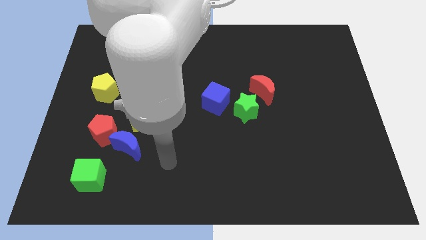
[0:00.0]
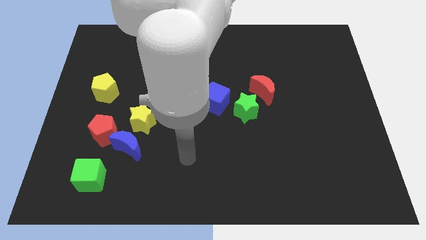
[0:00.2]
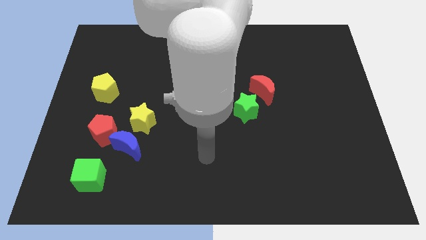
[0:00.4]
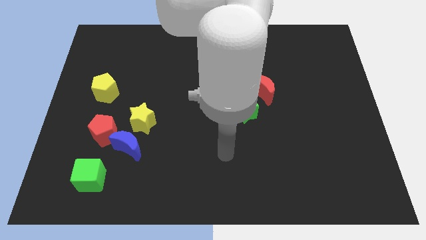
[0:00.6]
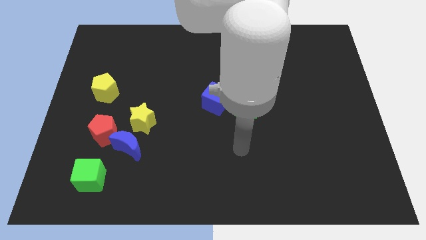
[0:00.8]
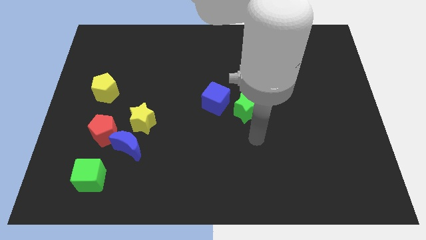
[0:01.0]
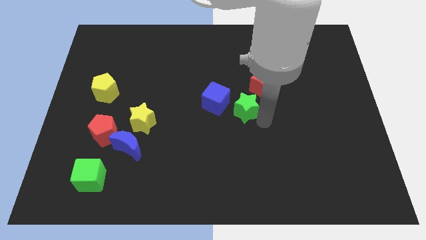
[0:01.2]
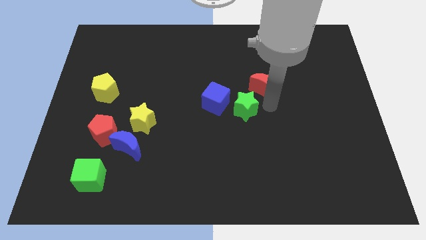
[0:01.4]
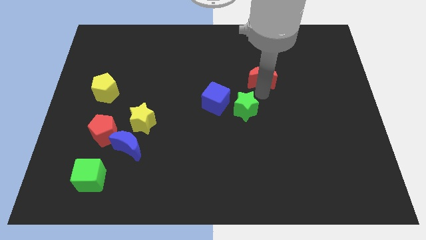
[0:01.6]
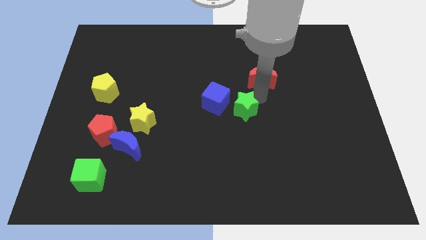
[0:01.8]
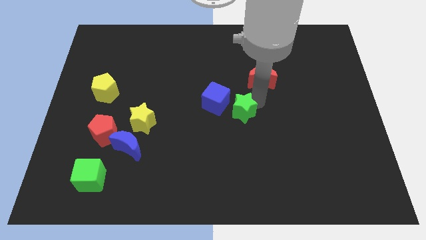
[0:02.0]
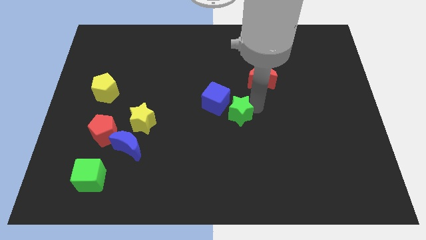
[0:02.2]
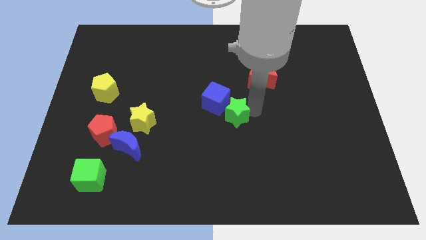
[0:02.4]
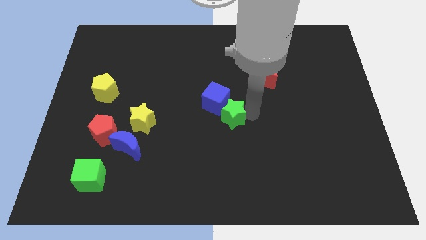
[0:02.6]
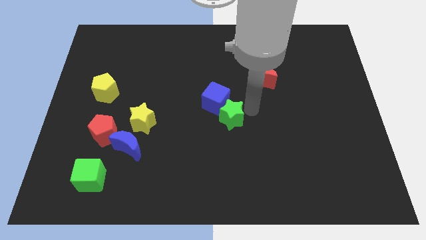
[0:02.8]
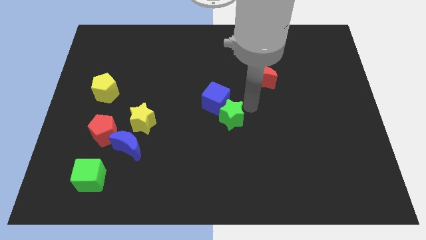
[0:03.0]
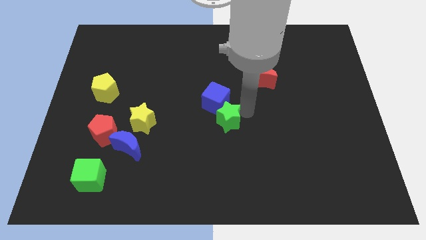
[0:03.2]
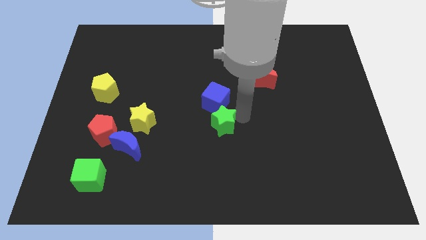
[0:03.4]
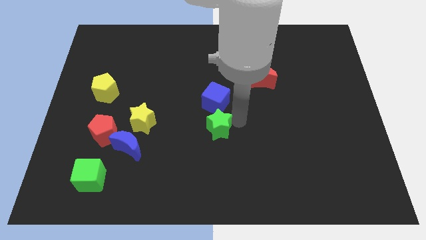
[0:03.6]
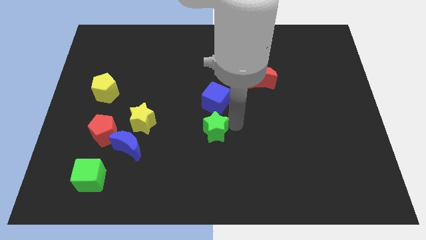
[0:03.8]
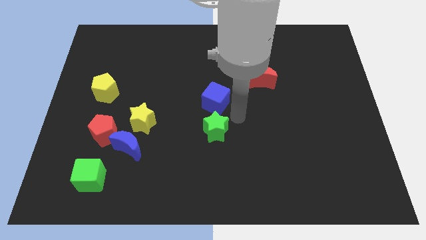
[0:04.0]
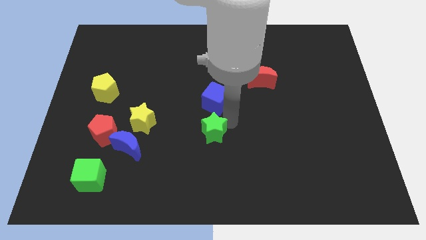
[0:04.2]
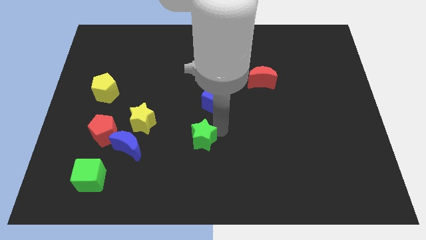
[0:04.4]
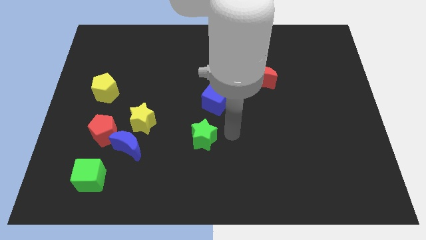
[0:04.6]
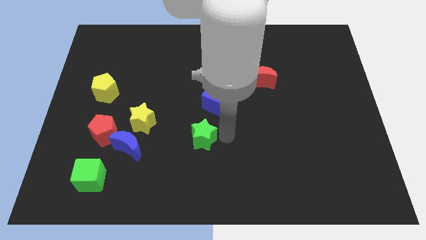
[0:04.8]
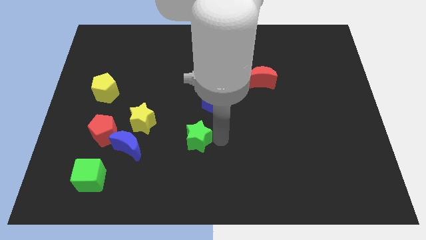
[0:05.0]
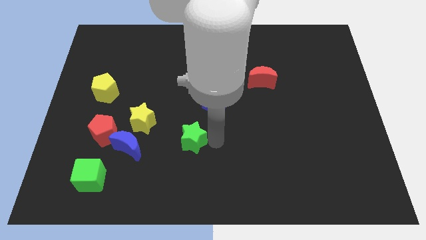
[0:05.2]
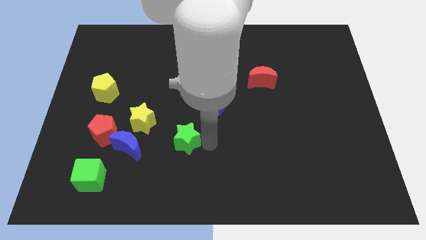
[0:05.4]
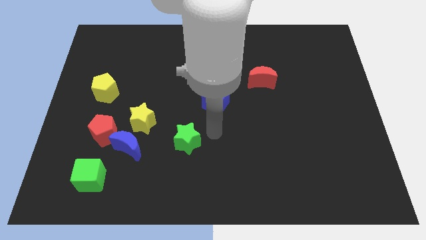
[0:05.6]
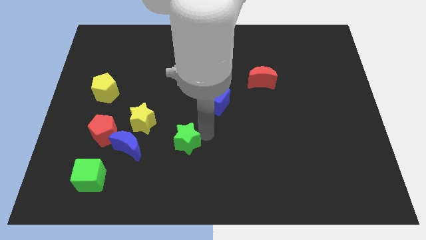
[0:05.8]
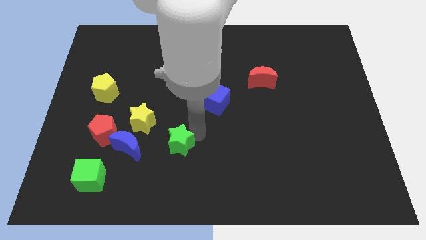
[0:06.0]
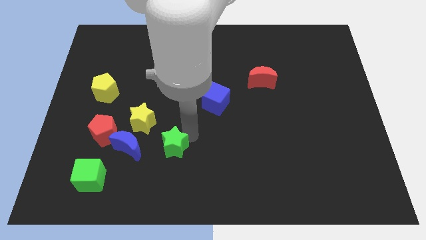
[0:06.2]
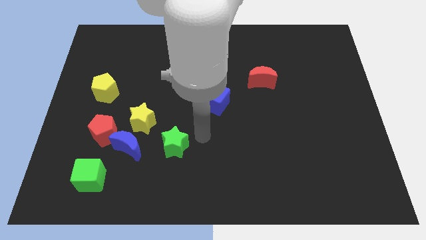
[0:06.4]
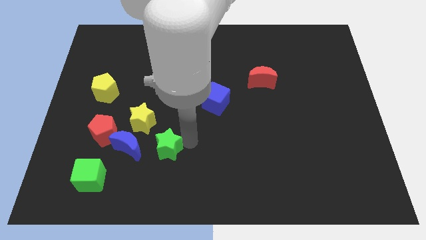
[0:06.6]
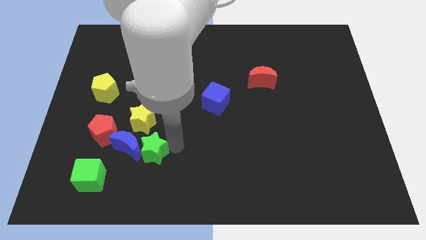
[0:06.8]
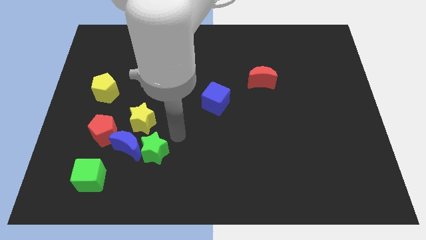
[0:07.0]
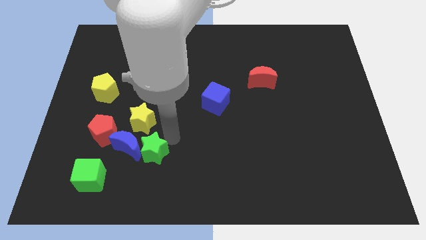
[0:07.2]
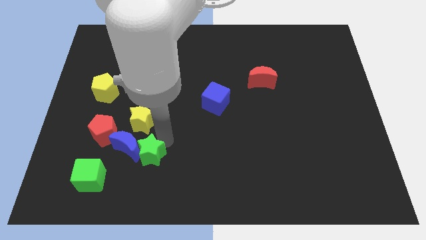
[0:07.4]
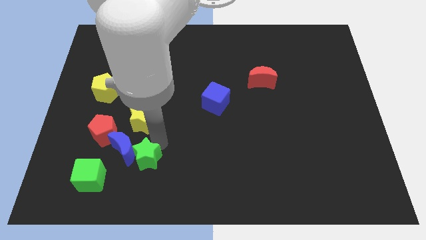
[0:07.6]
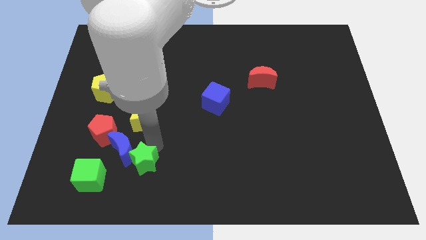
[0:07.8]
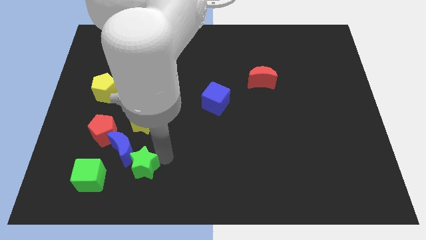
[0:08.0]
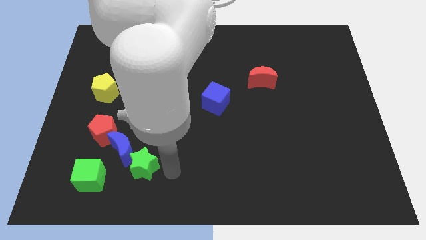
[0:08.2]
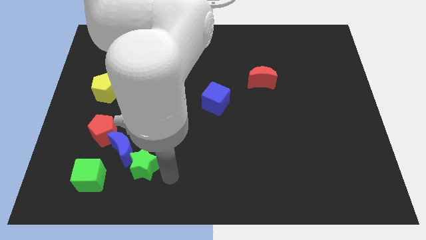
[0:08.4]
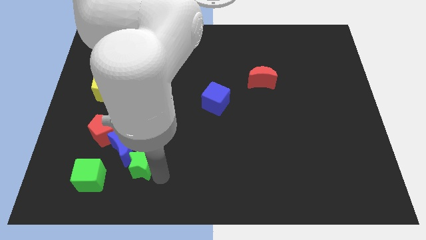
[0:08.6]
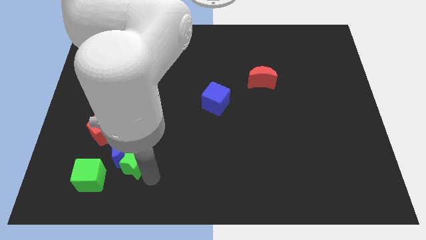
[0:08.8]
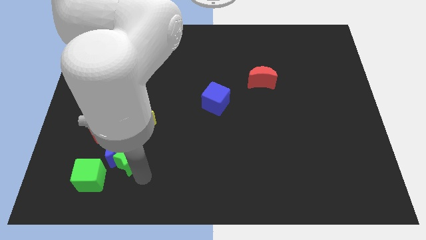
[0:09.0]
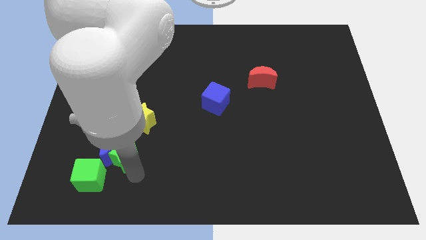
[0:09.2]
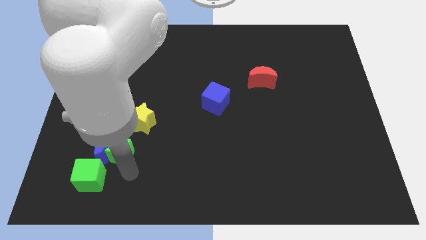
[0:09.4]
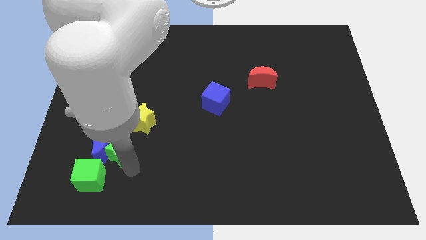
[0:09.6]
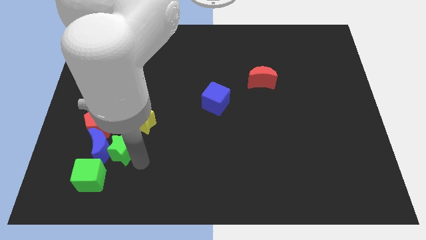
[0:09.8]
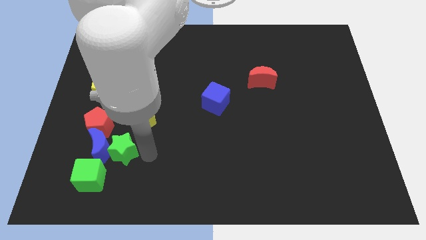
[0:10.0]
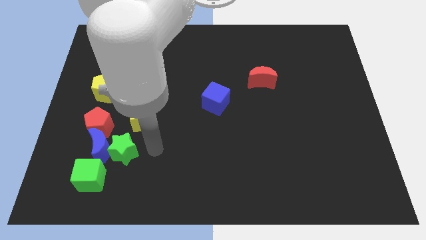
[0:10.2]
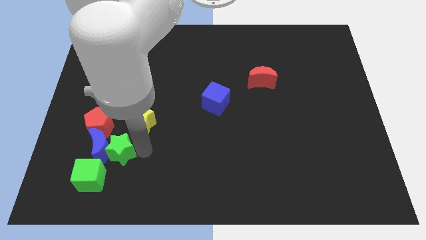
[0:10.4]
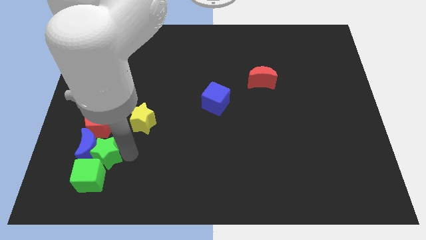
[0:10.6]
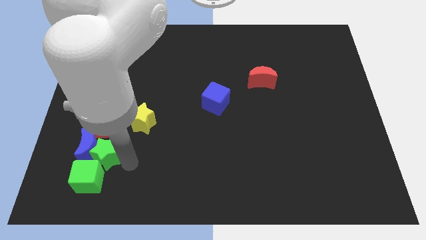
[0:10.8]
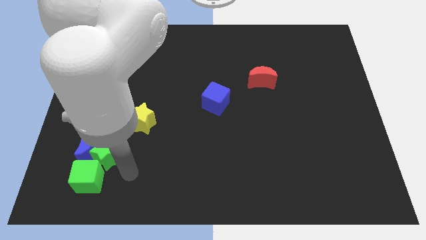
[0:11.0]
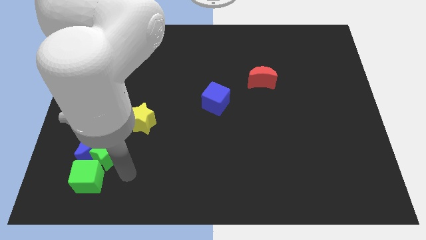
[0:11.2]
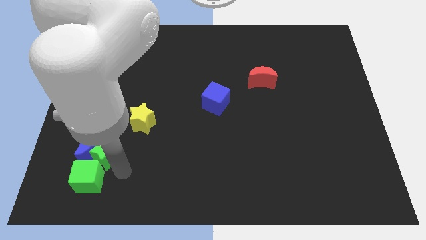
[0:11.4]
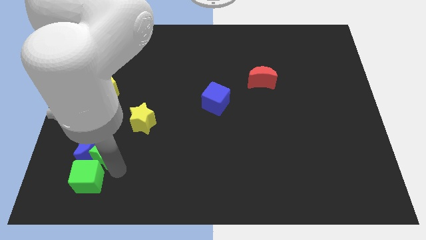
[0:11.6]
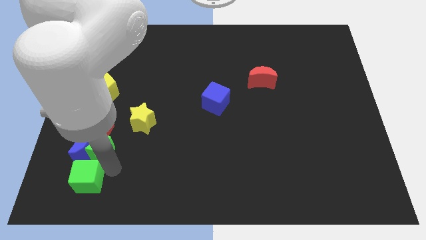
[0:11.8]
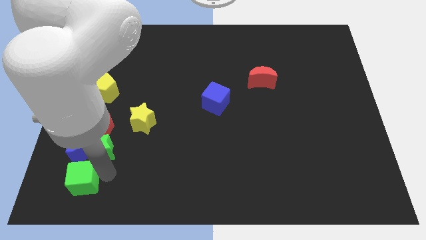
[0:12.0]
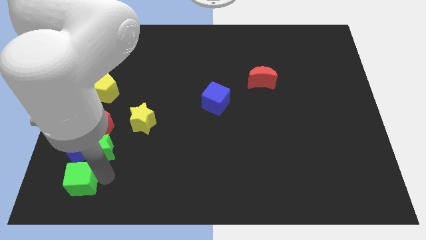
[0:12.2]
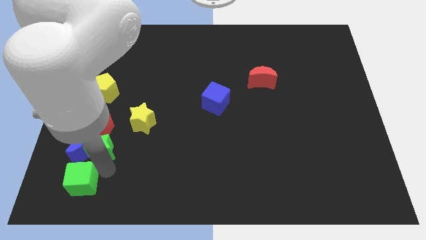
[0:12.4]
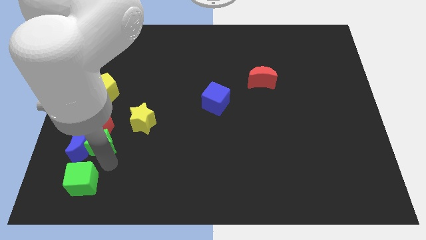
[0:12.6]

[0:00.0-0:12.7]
move the green star below the yellow pentagon
